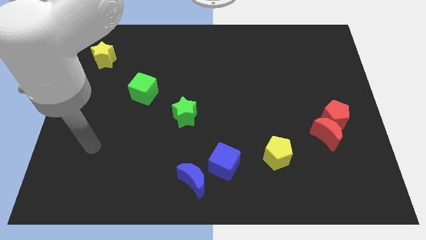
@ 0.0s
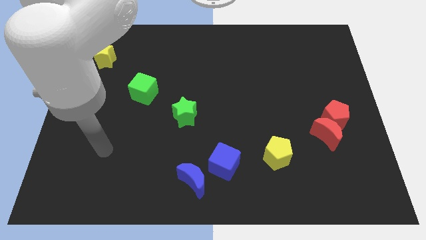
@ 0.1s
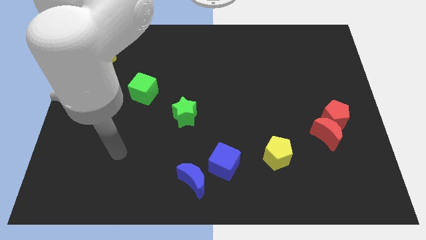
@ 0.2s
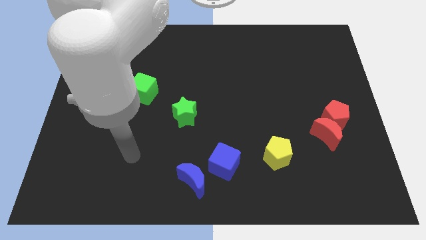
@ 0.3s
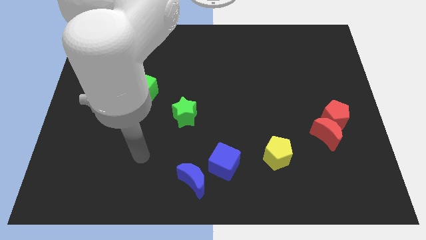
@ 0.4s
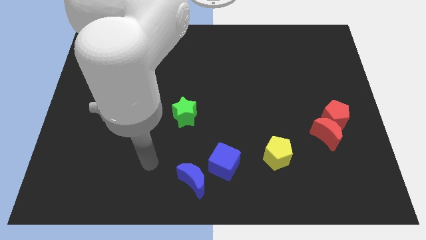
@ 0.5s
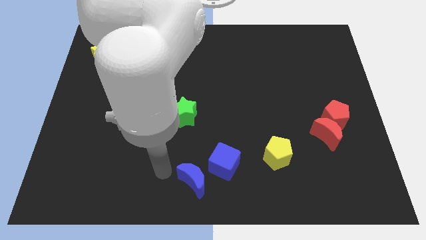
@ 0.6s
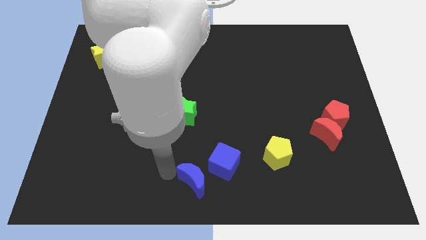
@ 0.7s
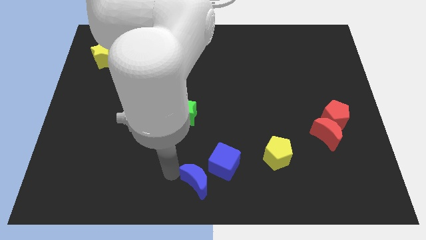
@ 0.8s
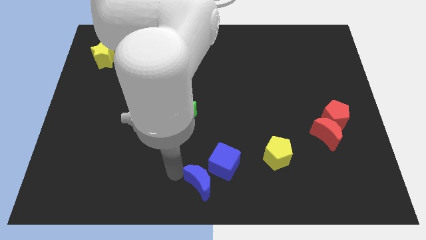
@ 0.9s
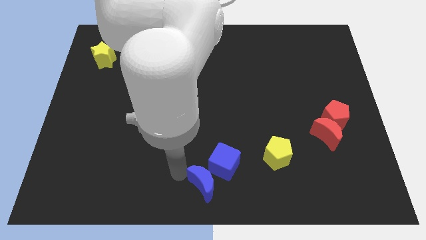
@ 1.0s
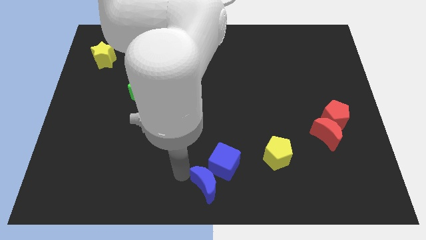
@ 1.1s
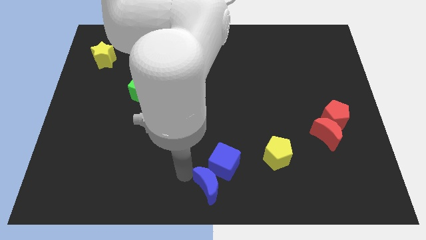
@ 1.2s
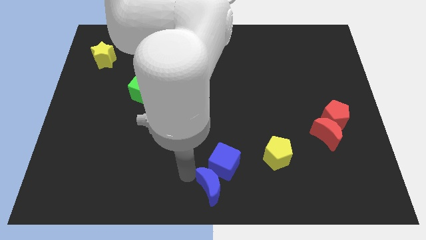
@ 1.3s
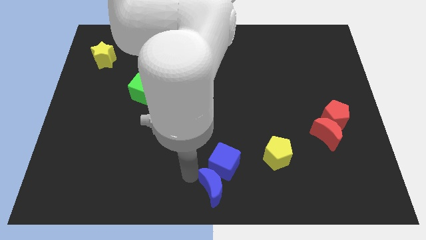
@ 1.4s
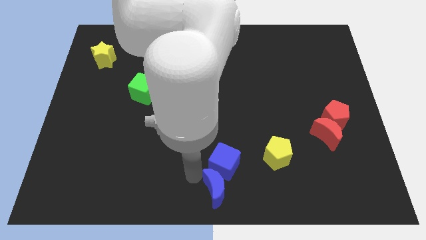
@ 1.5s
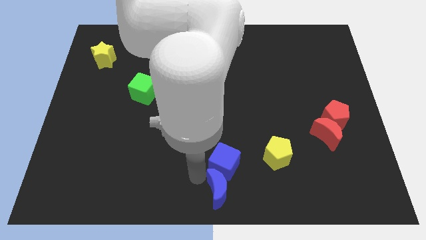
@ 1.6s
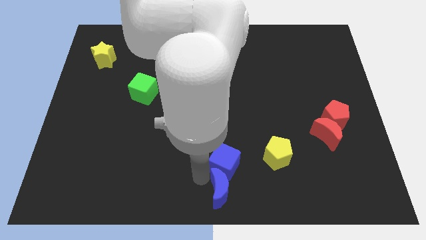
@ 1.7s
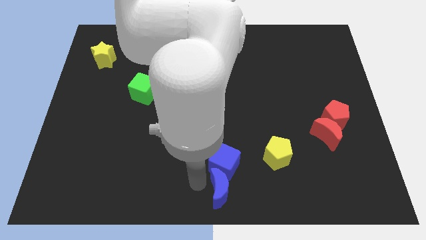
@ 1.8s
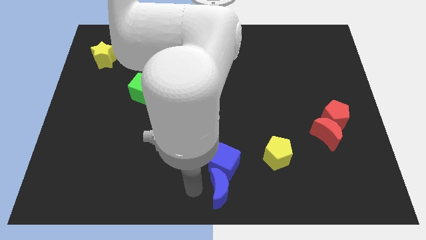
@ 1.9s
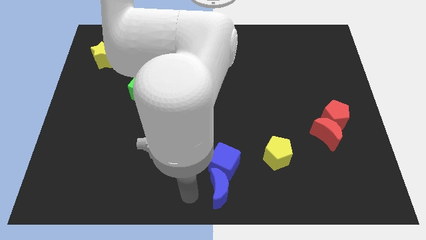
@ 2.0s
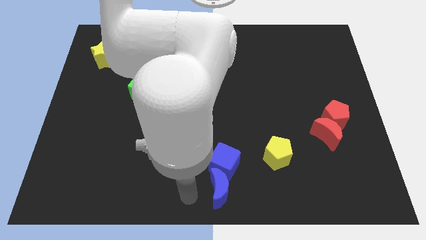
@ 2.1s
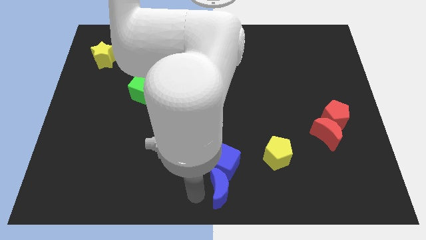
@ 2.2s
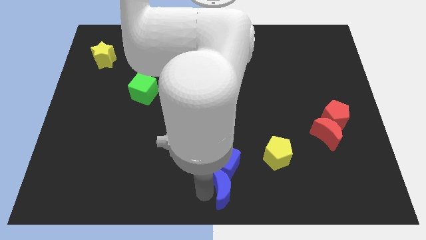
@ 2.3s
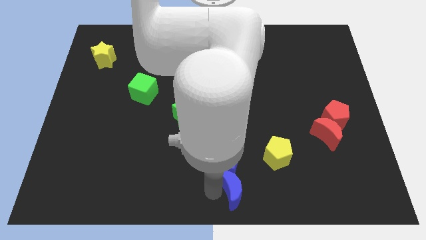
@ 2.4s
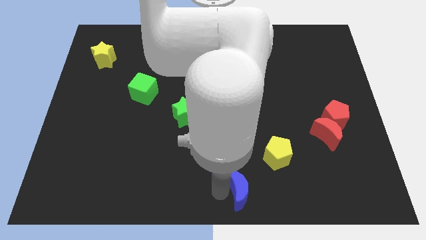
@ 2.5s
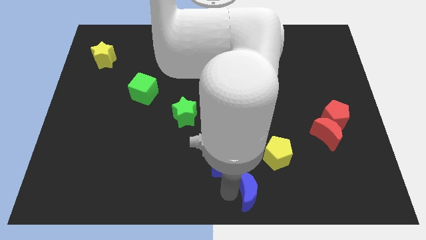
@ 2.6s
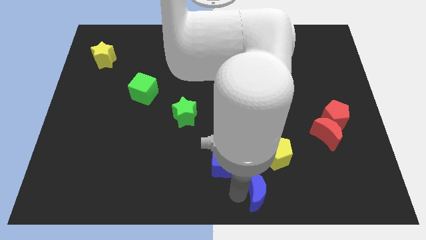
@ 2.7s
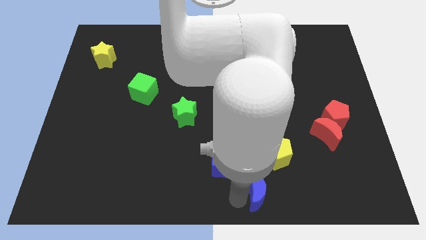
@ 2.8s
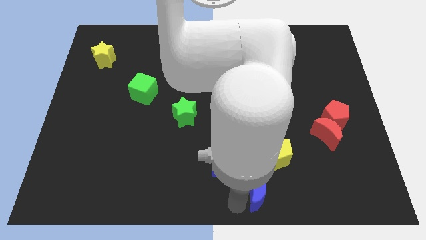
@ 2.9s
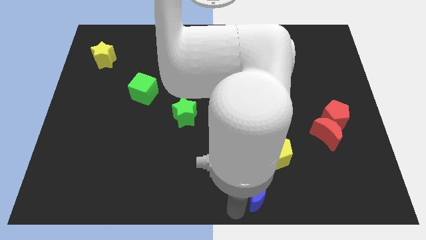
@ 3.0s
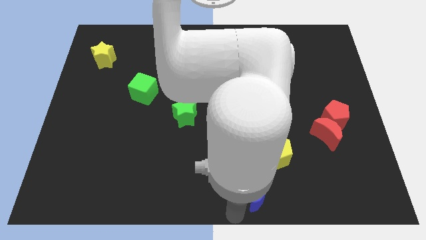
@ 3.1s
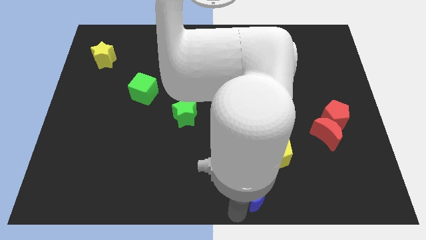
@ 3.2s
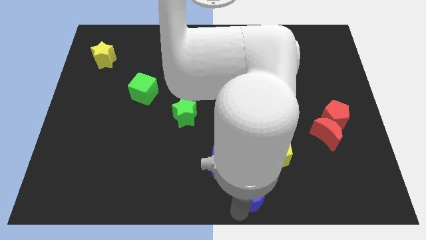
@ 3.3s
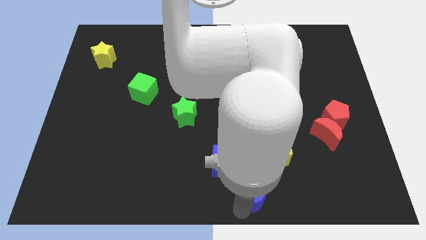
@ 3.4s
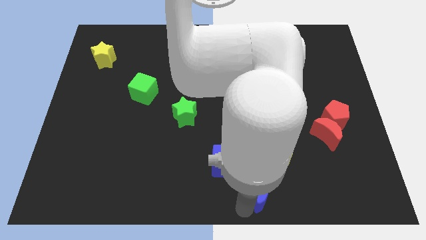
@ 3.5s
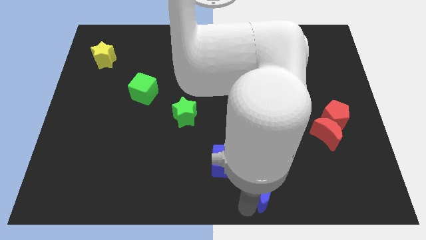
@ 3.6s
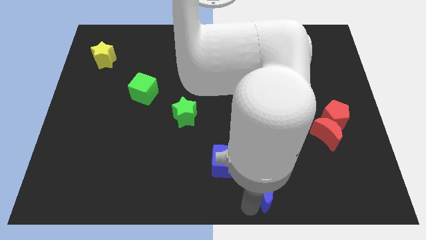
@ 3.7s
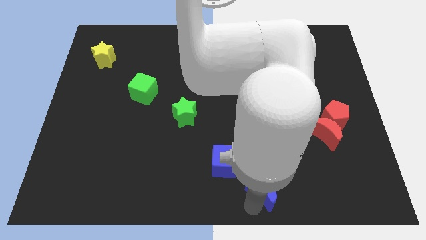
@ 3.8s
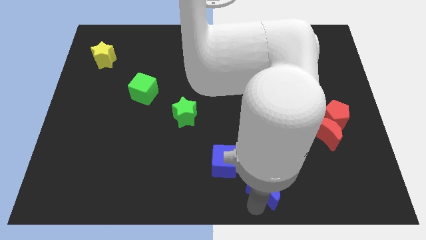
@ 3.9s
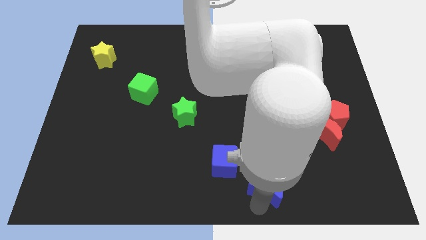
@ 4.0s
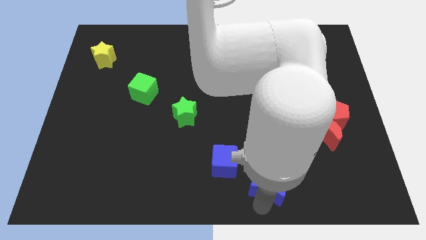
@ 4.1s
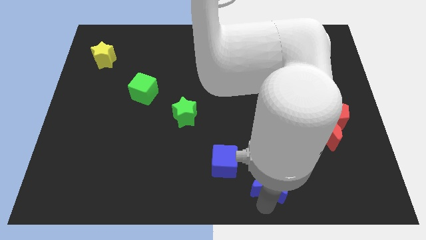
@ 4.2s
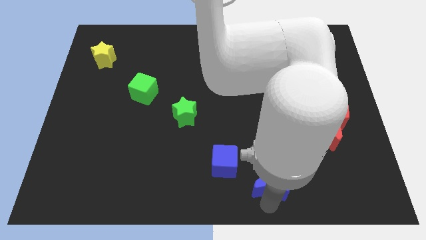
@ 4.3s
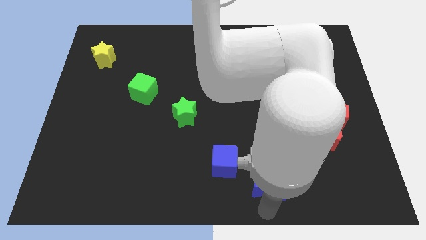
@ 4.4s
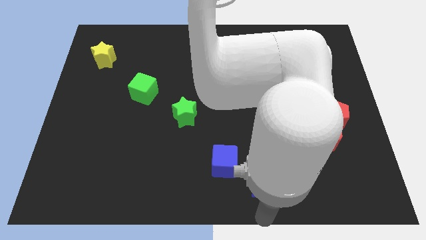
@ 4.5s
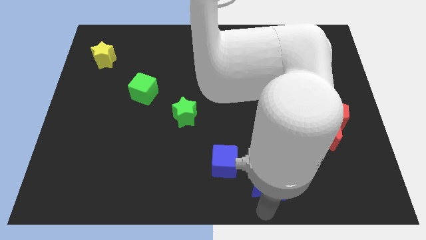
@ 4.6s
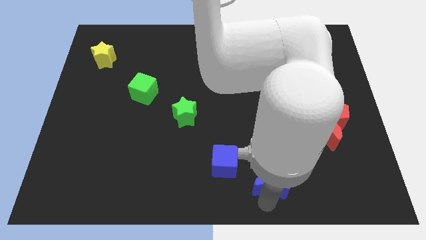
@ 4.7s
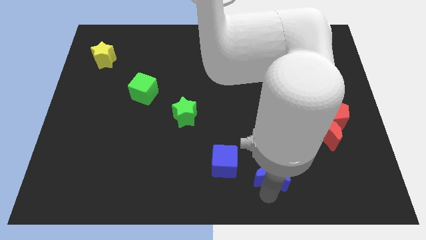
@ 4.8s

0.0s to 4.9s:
move the blue moon to the right side of the blue cube

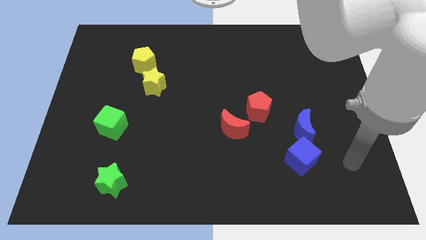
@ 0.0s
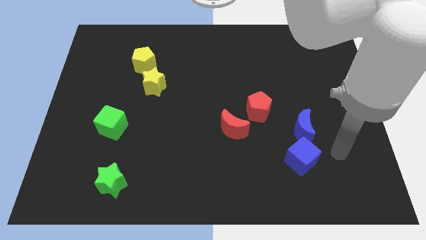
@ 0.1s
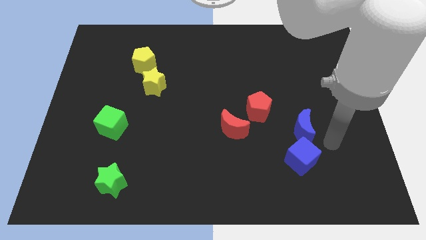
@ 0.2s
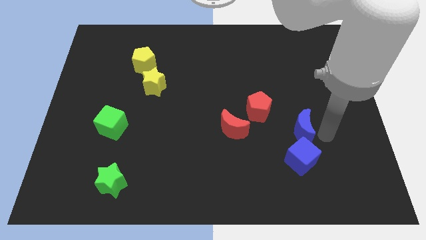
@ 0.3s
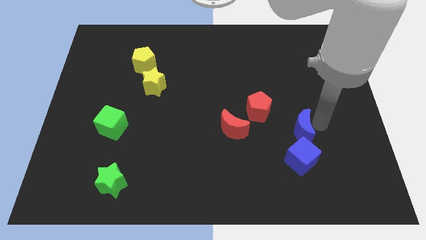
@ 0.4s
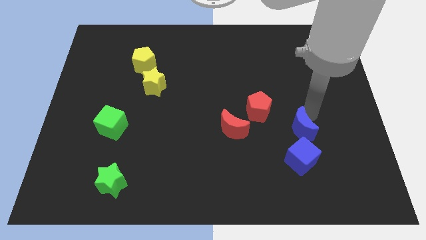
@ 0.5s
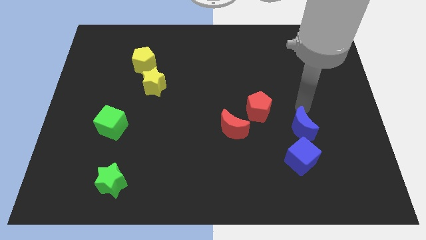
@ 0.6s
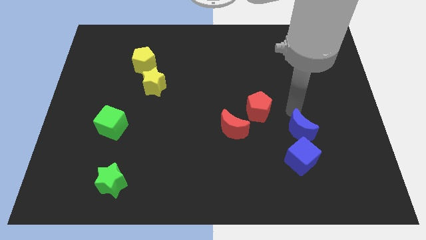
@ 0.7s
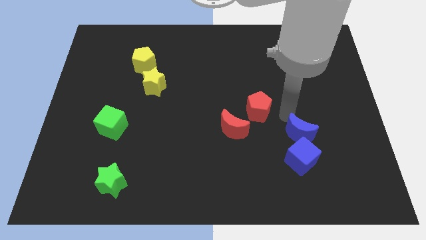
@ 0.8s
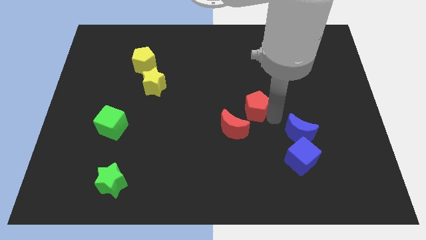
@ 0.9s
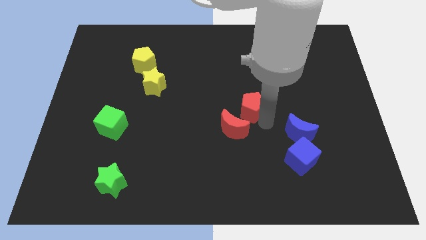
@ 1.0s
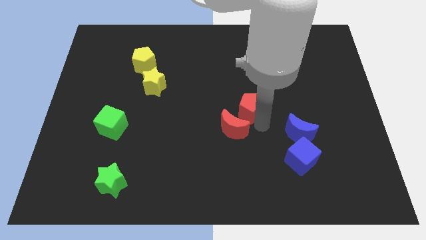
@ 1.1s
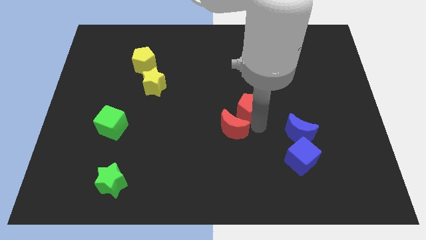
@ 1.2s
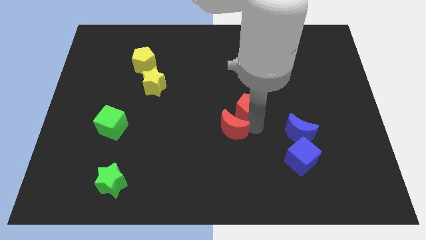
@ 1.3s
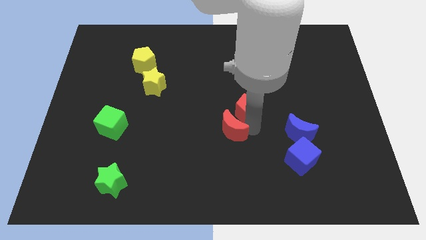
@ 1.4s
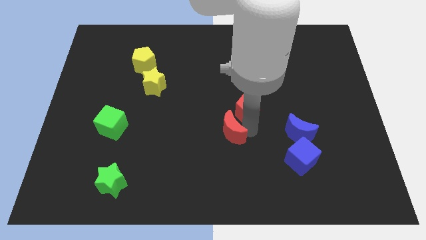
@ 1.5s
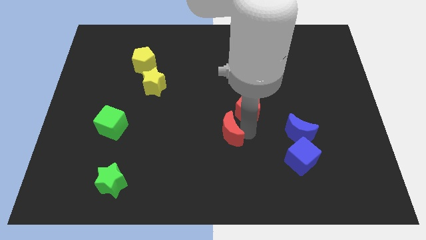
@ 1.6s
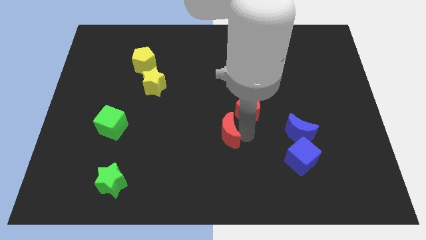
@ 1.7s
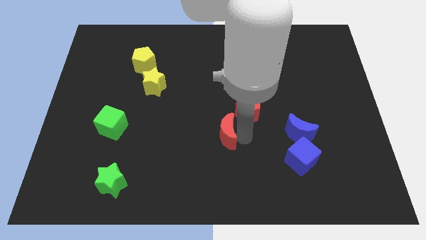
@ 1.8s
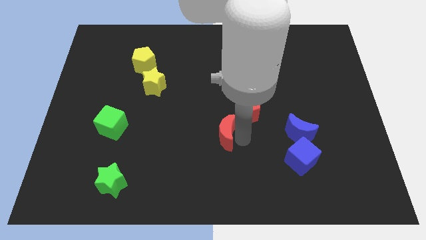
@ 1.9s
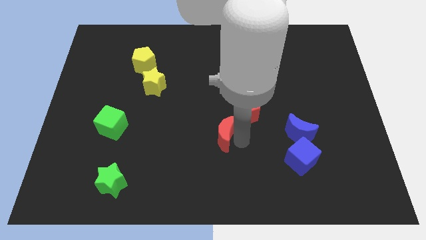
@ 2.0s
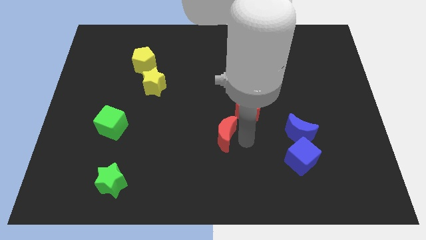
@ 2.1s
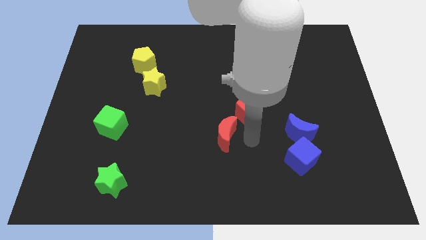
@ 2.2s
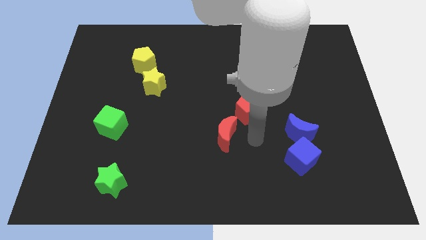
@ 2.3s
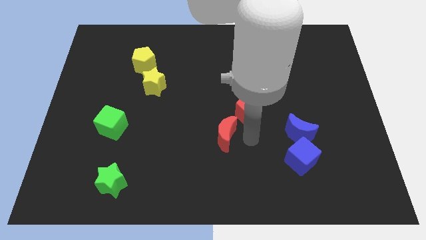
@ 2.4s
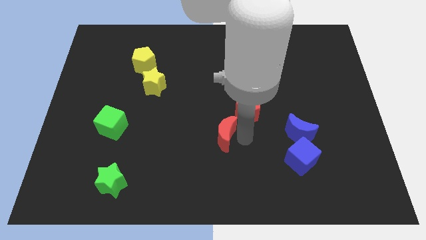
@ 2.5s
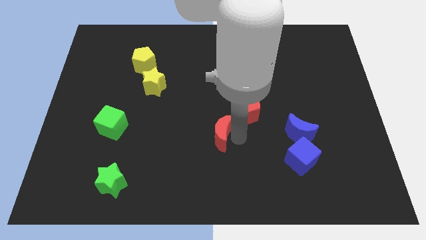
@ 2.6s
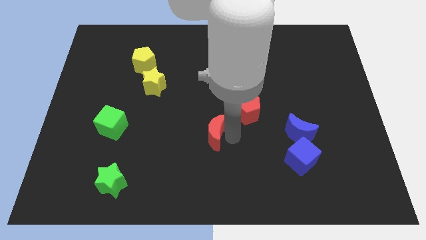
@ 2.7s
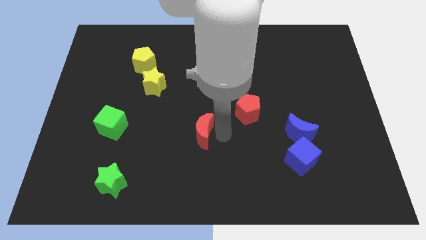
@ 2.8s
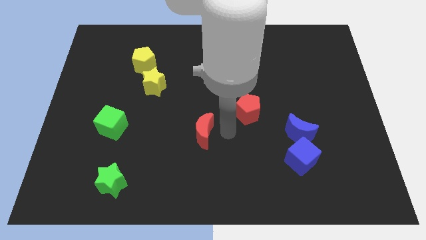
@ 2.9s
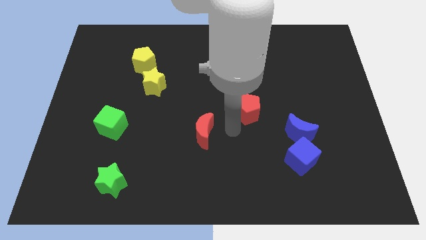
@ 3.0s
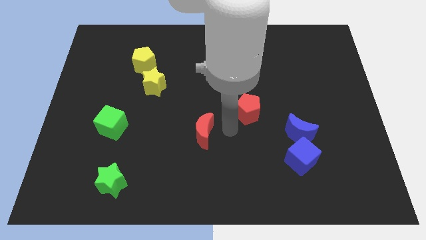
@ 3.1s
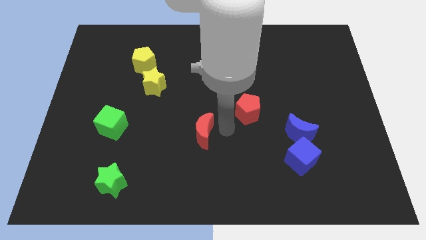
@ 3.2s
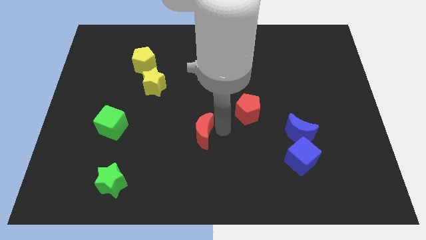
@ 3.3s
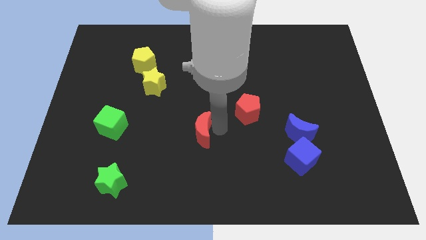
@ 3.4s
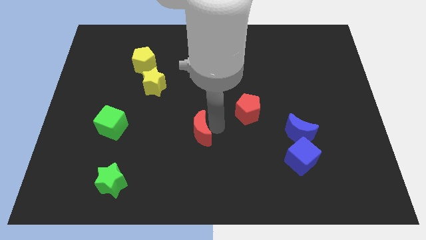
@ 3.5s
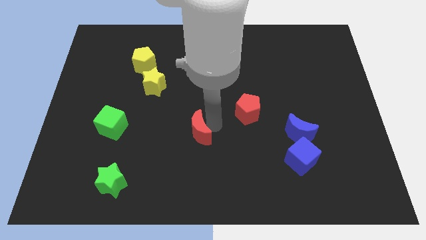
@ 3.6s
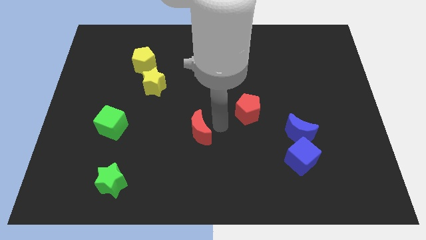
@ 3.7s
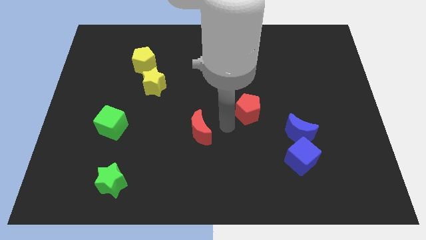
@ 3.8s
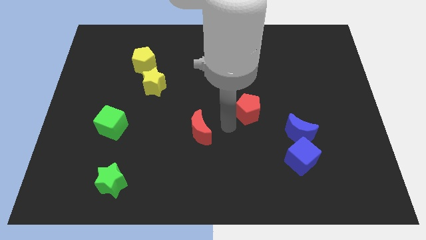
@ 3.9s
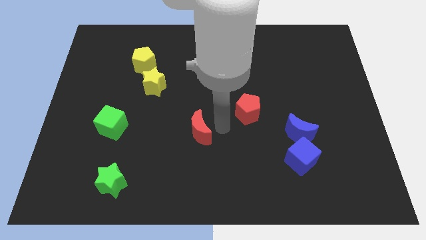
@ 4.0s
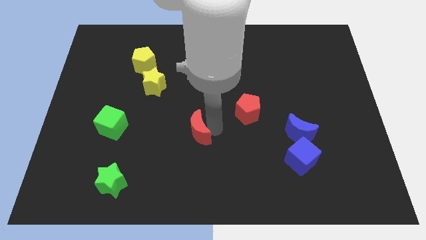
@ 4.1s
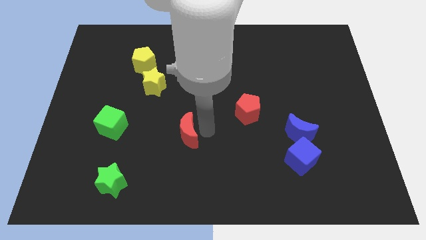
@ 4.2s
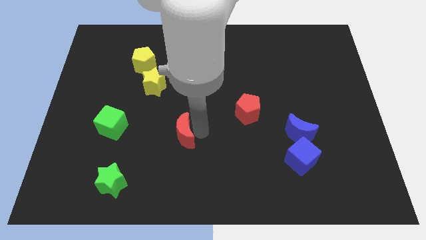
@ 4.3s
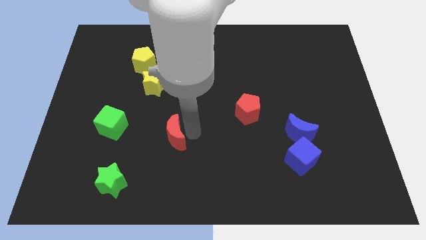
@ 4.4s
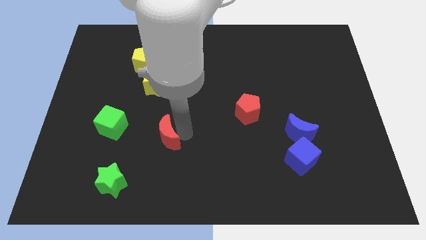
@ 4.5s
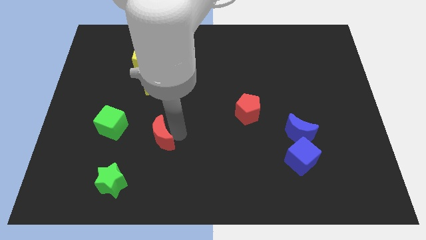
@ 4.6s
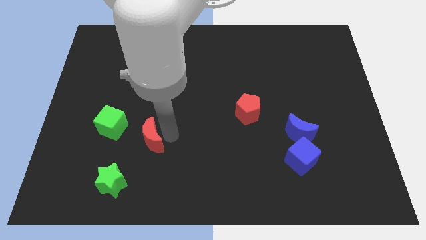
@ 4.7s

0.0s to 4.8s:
move the red moon diagonally down and to the right of the green cube
